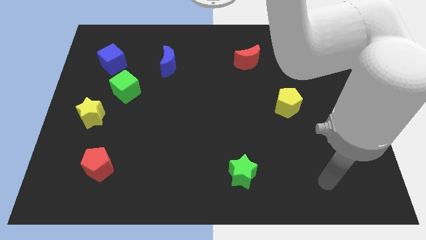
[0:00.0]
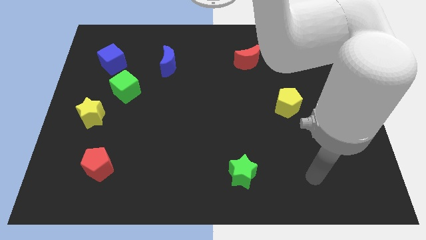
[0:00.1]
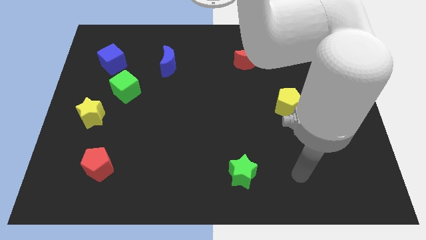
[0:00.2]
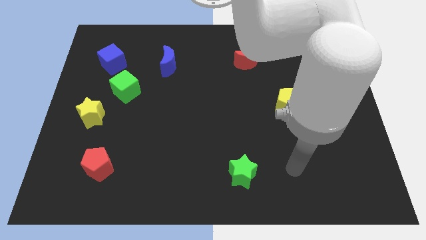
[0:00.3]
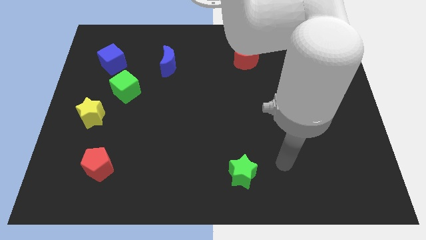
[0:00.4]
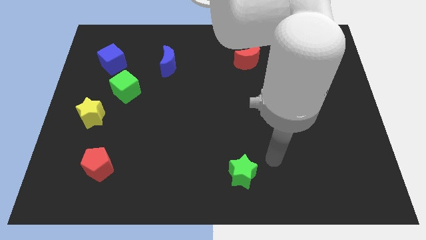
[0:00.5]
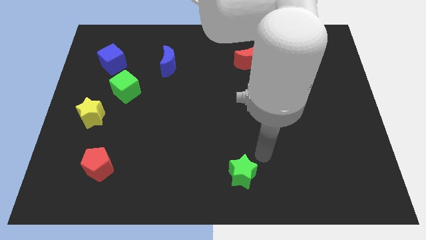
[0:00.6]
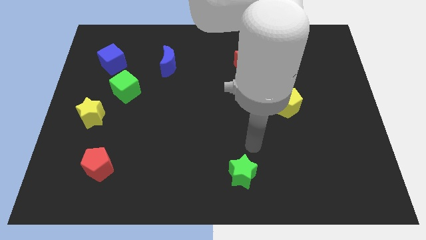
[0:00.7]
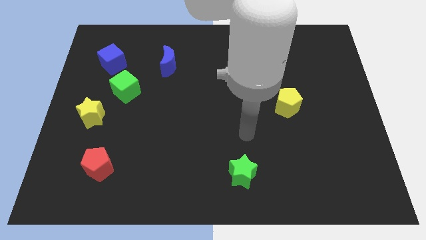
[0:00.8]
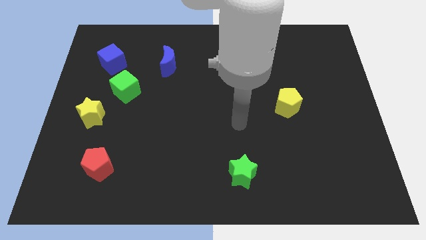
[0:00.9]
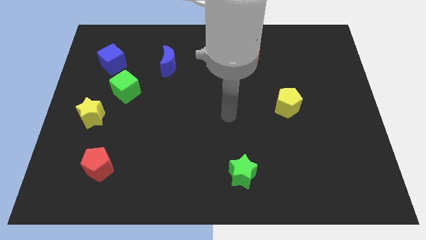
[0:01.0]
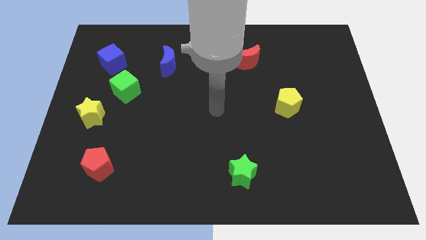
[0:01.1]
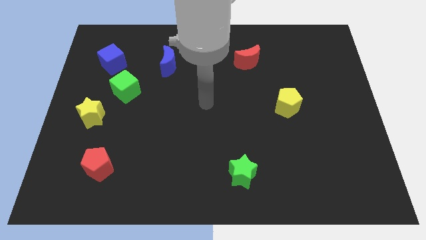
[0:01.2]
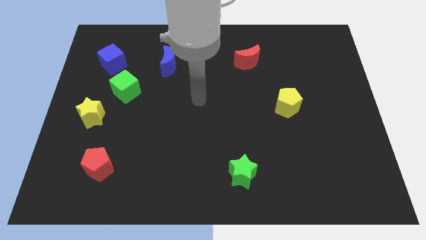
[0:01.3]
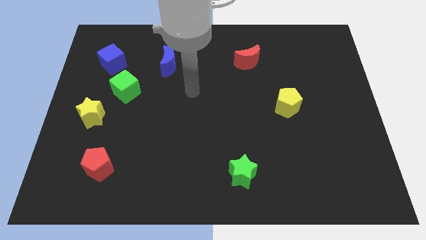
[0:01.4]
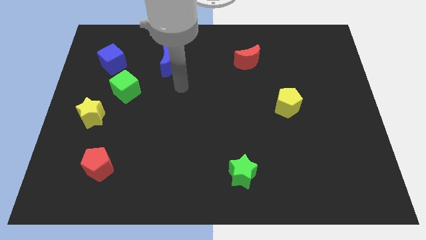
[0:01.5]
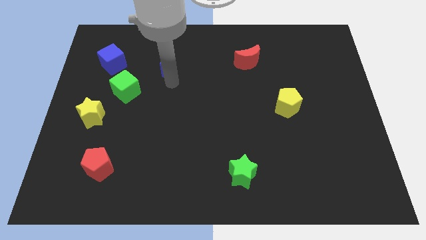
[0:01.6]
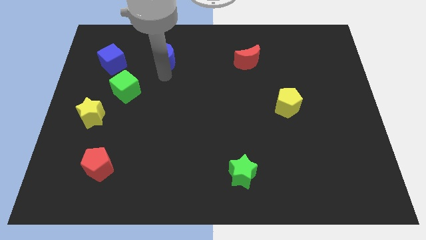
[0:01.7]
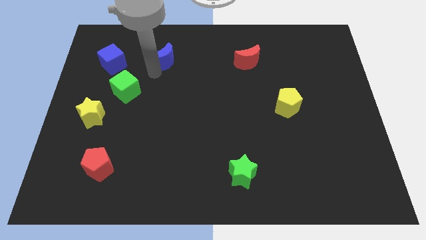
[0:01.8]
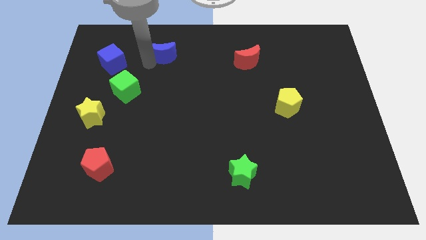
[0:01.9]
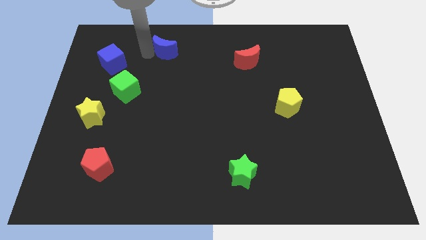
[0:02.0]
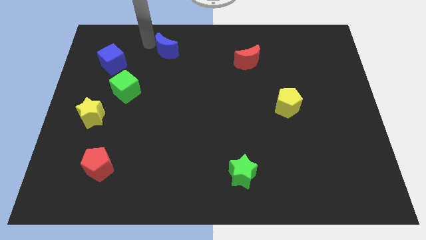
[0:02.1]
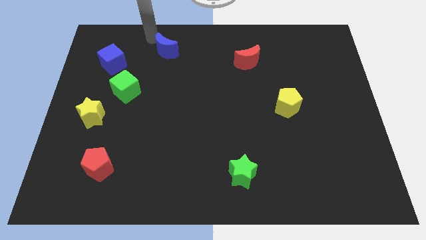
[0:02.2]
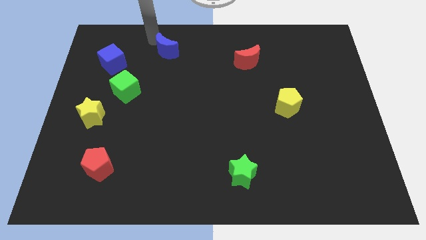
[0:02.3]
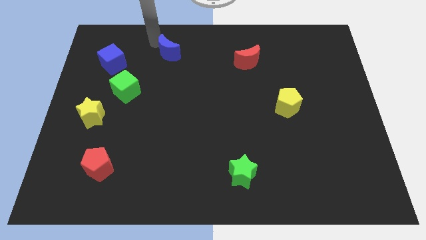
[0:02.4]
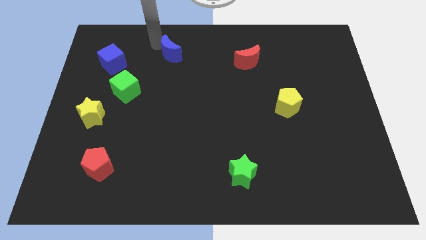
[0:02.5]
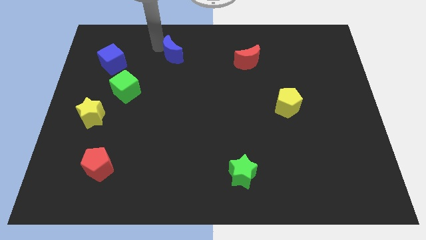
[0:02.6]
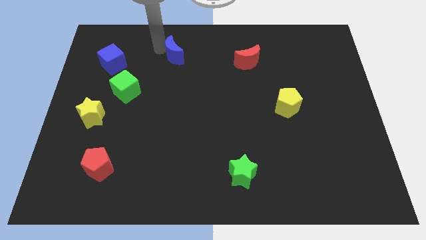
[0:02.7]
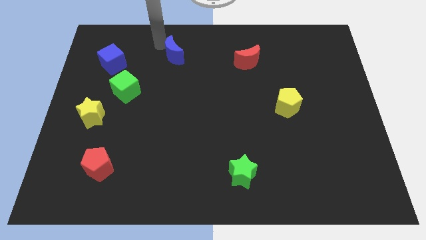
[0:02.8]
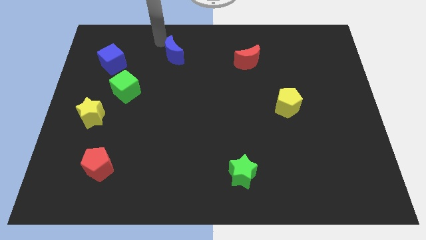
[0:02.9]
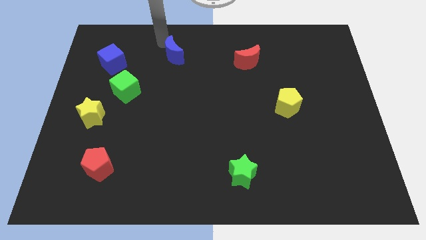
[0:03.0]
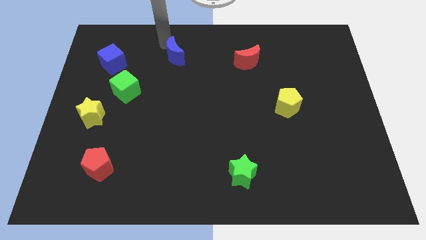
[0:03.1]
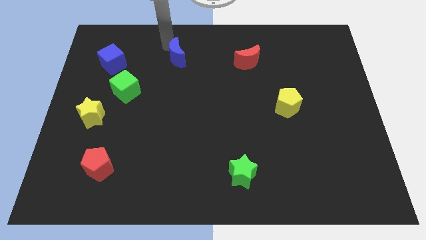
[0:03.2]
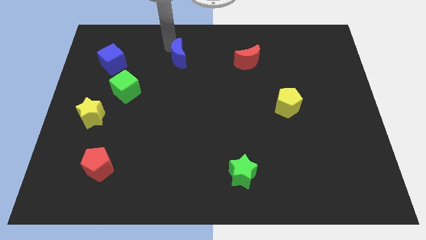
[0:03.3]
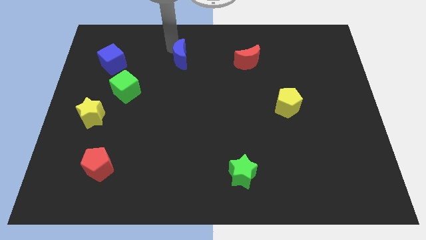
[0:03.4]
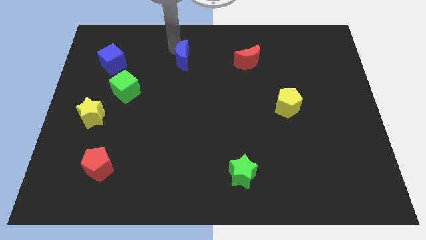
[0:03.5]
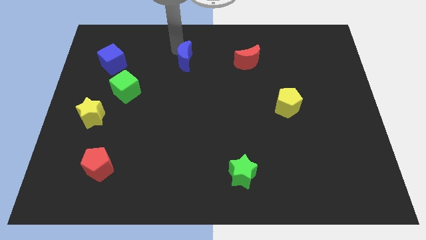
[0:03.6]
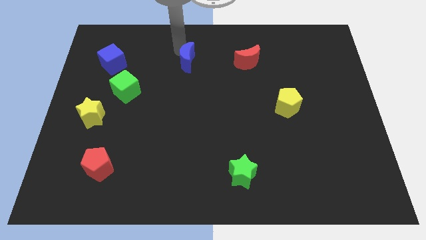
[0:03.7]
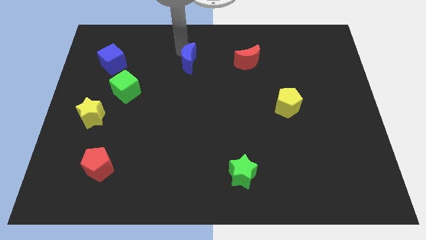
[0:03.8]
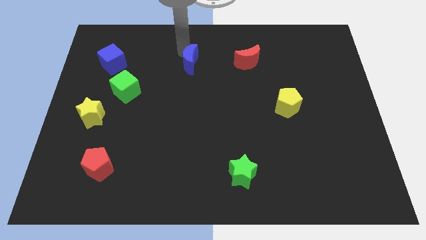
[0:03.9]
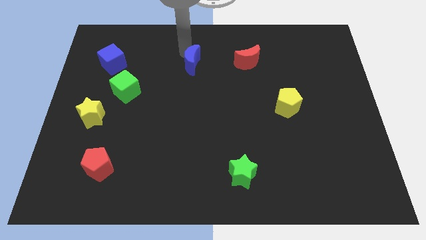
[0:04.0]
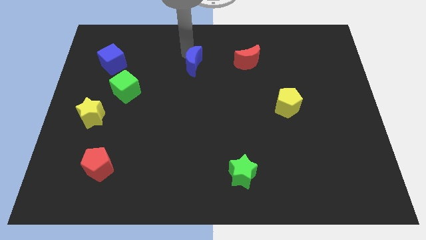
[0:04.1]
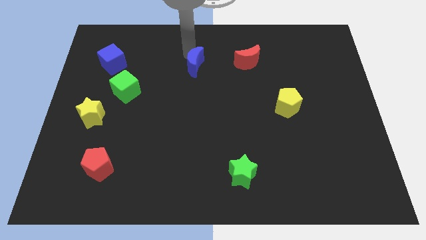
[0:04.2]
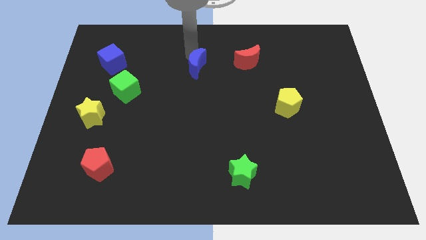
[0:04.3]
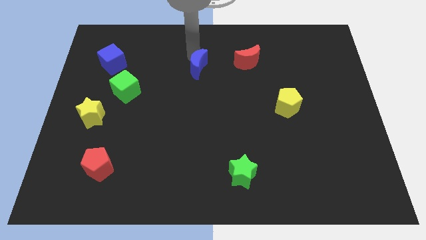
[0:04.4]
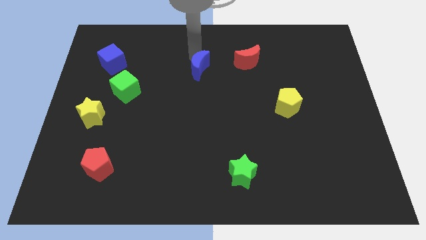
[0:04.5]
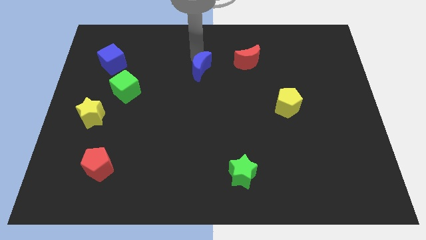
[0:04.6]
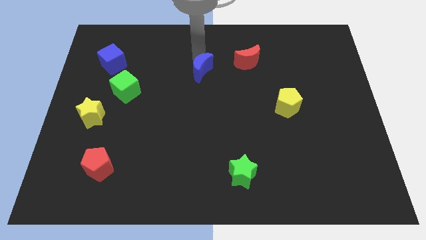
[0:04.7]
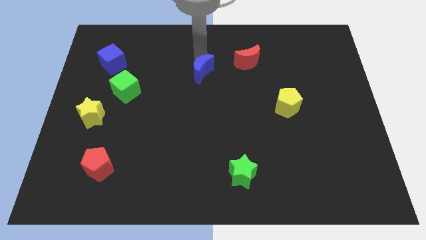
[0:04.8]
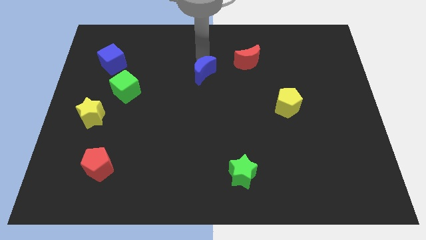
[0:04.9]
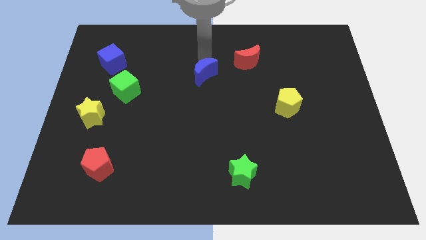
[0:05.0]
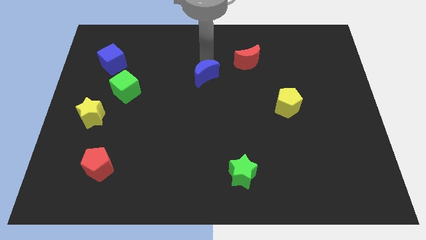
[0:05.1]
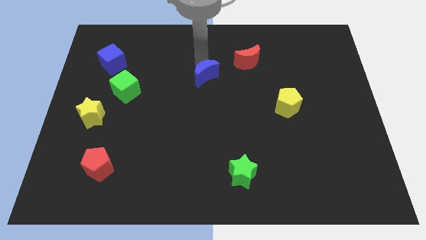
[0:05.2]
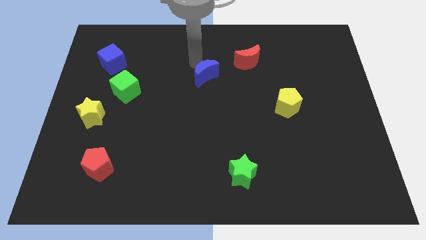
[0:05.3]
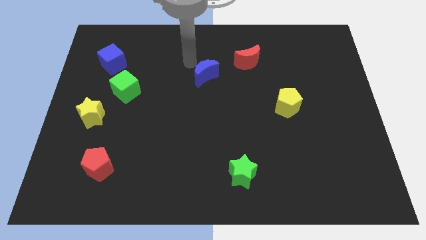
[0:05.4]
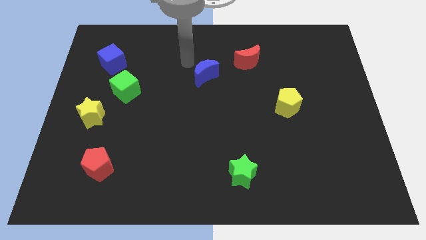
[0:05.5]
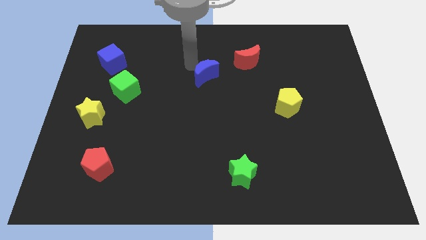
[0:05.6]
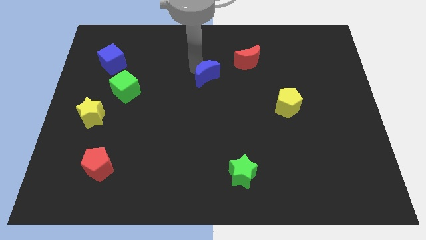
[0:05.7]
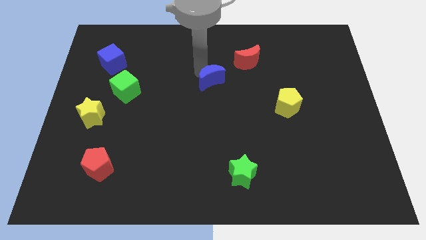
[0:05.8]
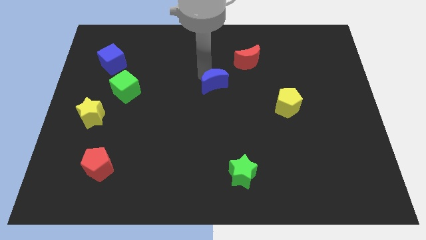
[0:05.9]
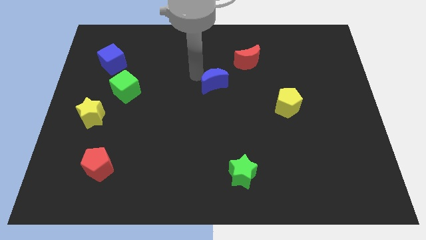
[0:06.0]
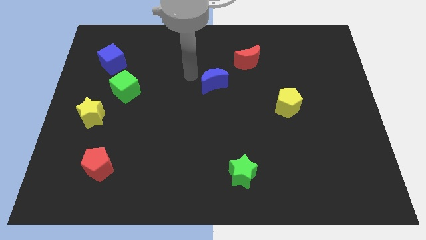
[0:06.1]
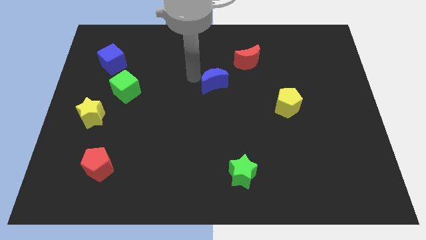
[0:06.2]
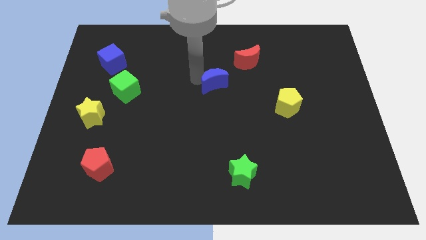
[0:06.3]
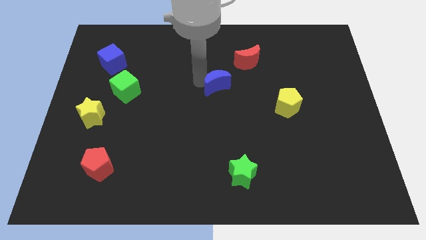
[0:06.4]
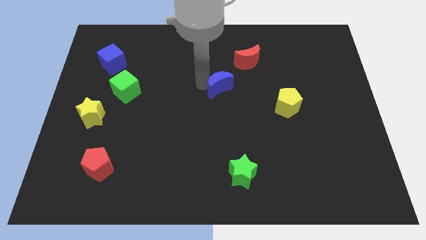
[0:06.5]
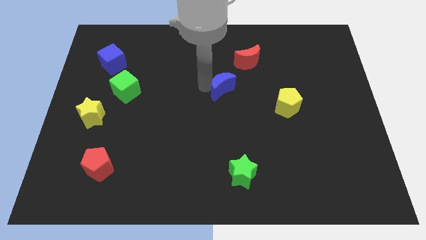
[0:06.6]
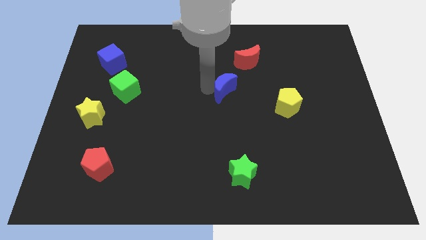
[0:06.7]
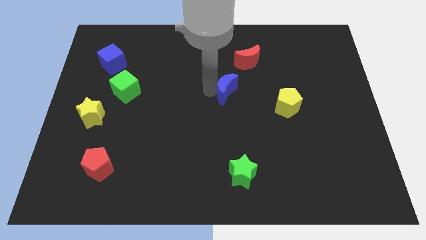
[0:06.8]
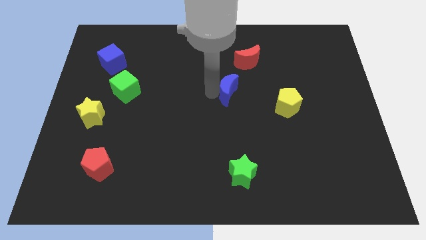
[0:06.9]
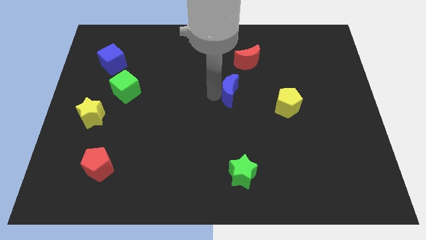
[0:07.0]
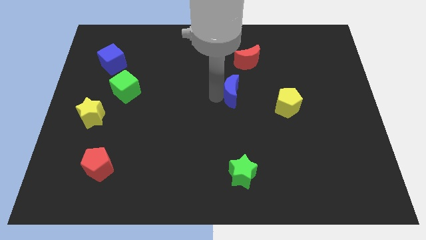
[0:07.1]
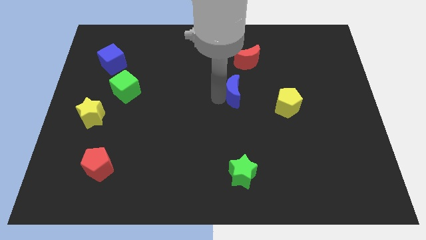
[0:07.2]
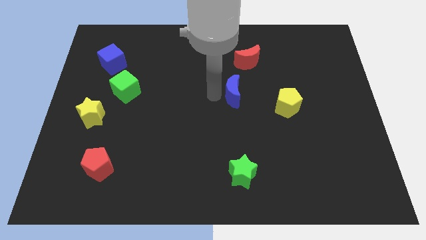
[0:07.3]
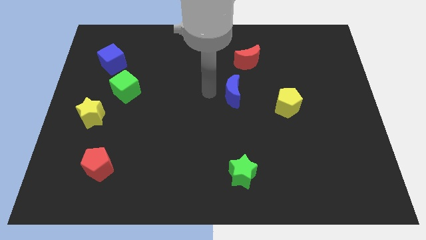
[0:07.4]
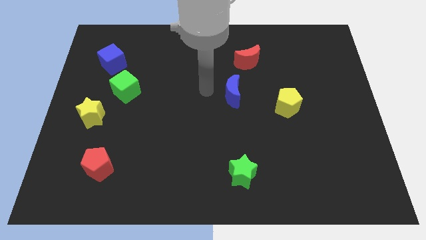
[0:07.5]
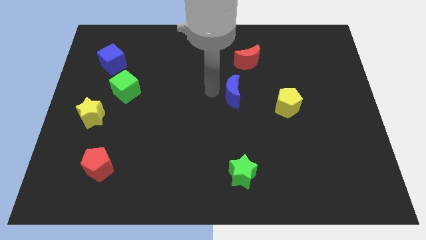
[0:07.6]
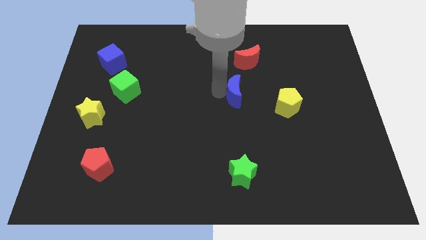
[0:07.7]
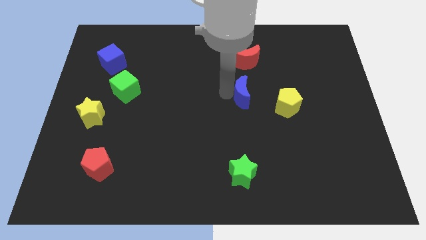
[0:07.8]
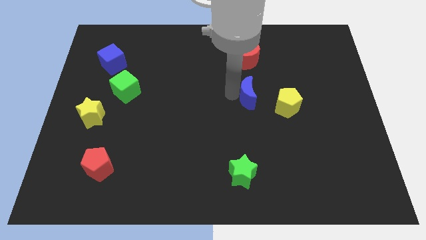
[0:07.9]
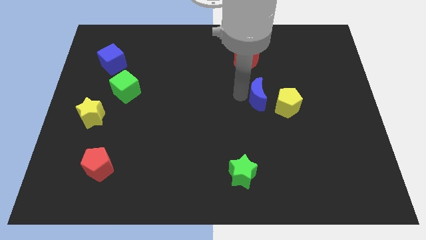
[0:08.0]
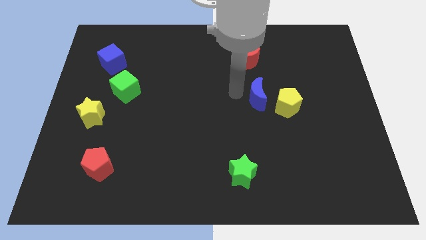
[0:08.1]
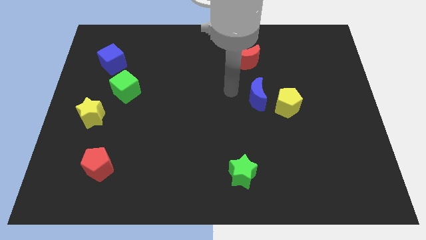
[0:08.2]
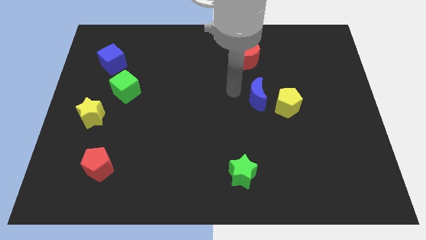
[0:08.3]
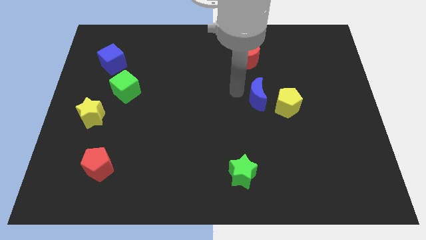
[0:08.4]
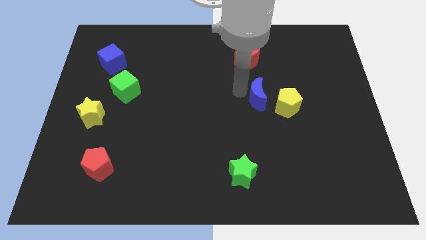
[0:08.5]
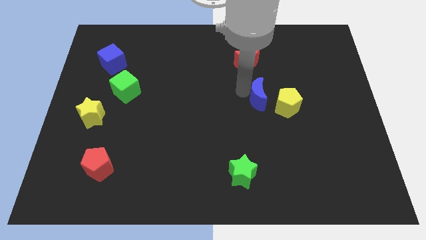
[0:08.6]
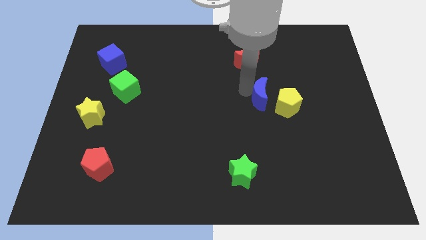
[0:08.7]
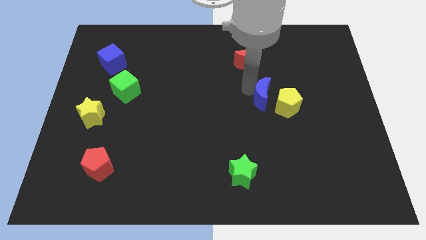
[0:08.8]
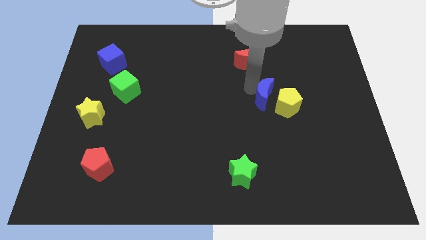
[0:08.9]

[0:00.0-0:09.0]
put the blue moon towards the yellow pentagon
